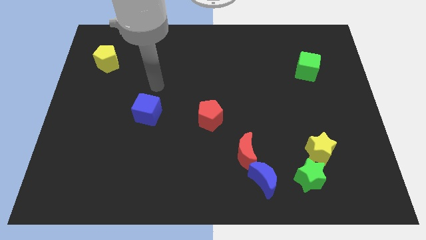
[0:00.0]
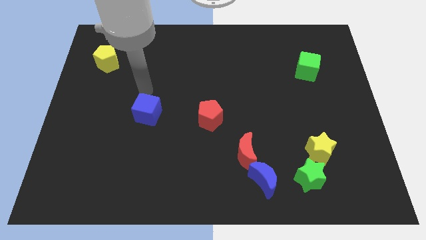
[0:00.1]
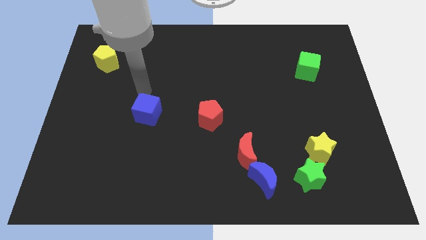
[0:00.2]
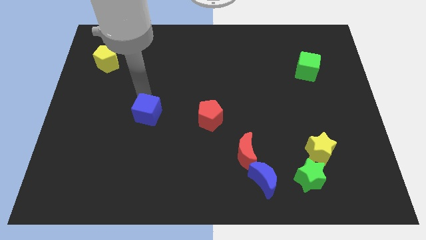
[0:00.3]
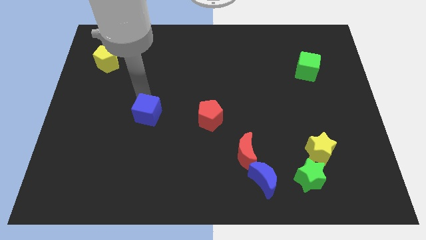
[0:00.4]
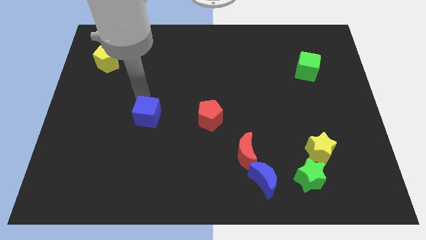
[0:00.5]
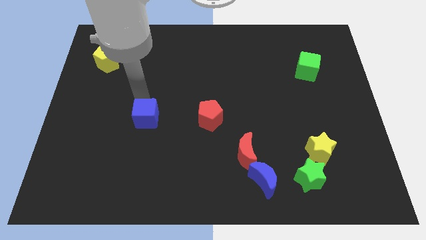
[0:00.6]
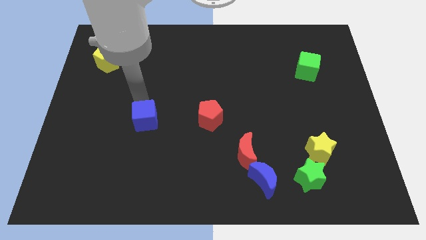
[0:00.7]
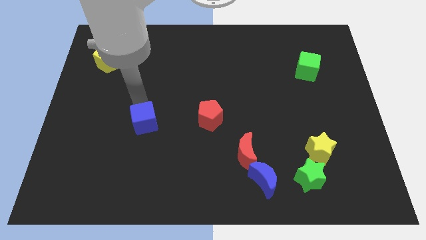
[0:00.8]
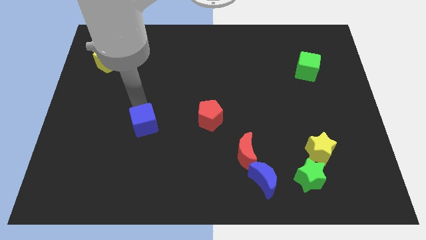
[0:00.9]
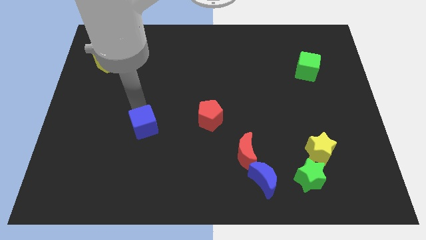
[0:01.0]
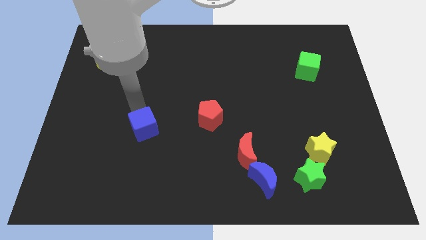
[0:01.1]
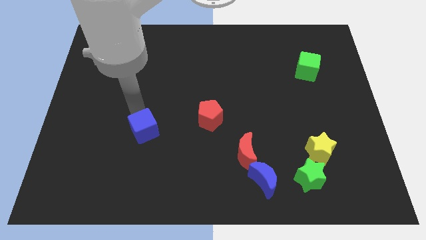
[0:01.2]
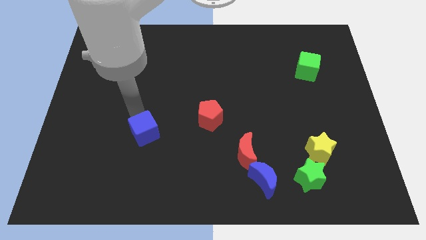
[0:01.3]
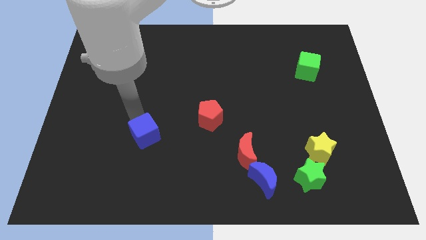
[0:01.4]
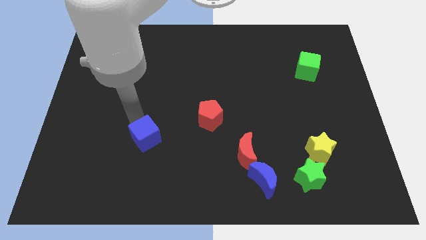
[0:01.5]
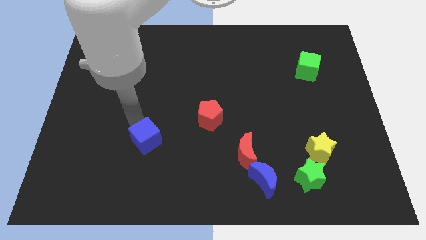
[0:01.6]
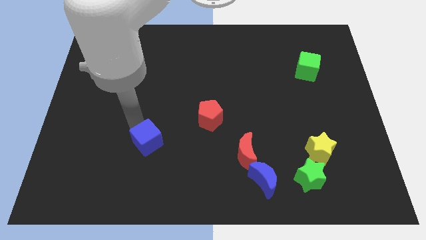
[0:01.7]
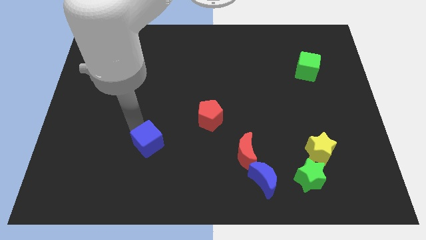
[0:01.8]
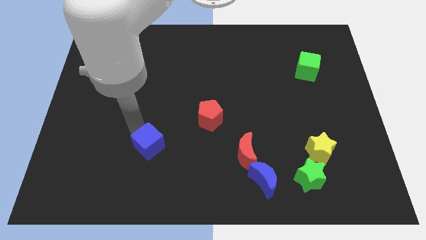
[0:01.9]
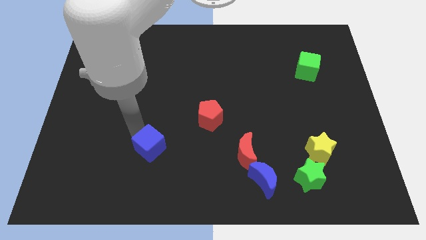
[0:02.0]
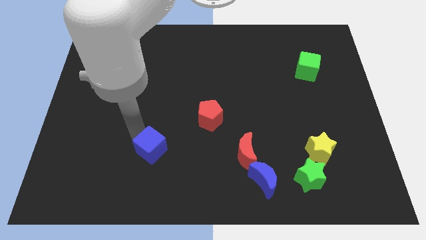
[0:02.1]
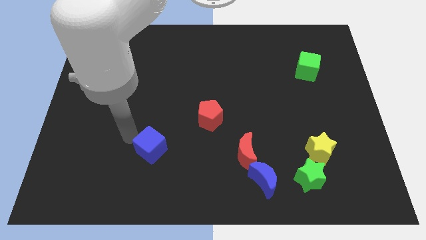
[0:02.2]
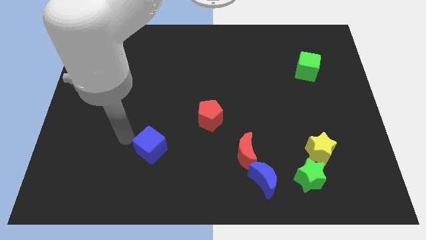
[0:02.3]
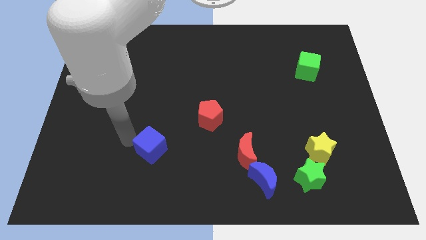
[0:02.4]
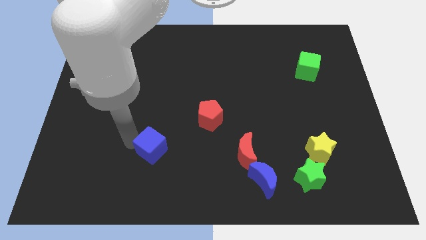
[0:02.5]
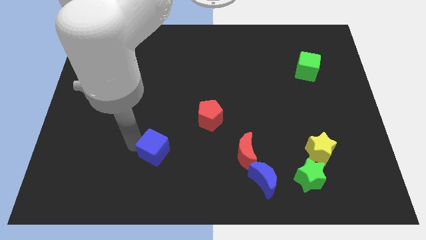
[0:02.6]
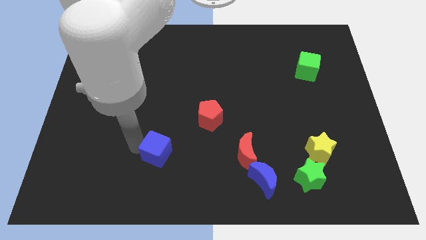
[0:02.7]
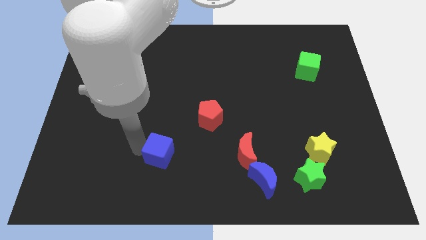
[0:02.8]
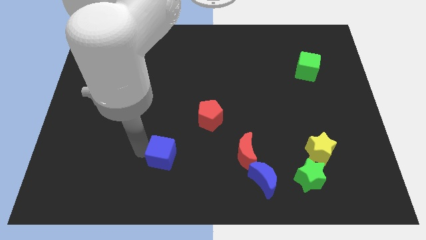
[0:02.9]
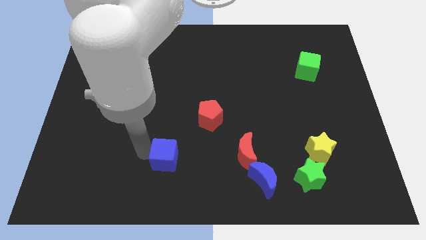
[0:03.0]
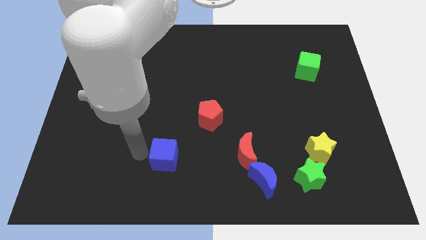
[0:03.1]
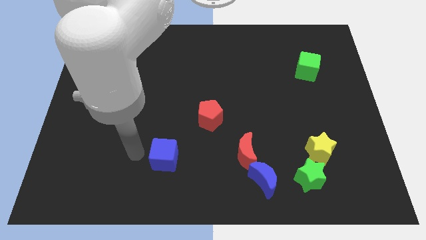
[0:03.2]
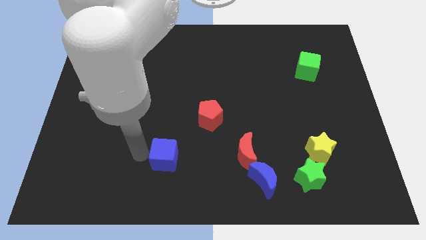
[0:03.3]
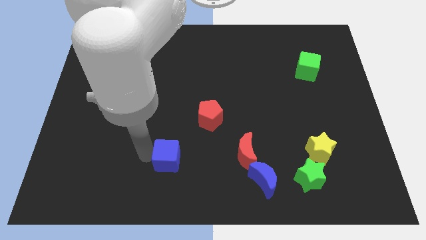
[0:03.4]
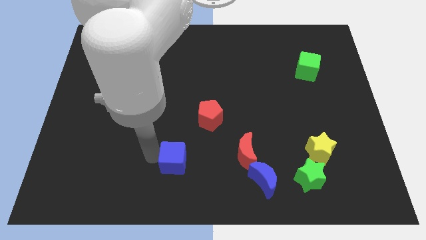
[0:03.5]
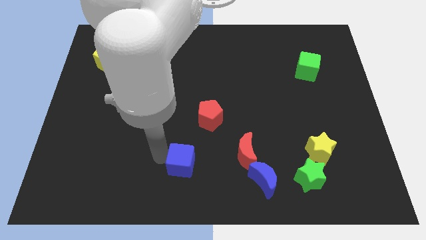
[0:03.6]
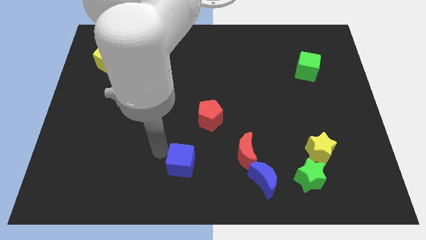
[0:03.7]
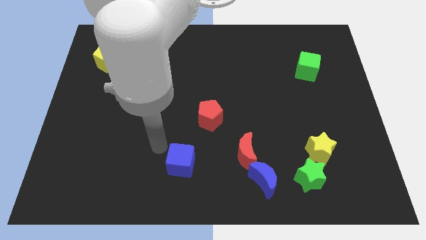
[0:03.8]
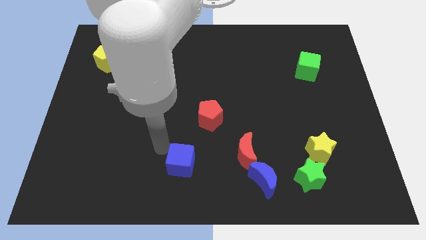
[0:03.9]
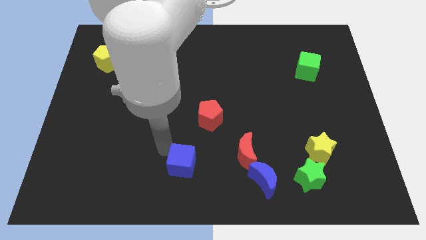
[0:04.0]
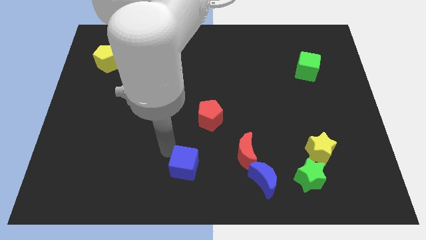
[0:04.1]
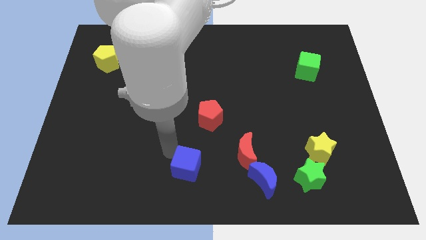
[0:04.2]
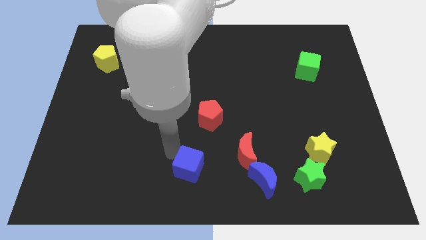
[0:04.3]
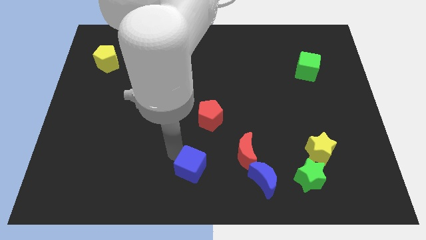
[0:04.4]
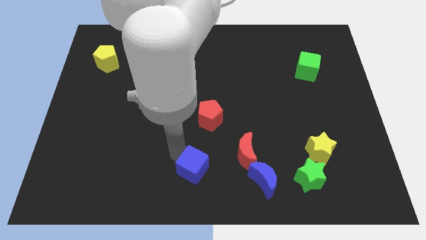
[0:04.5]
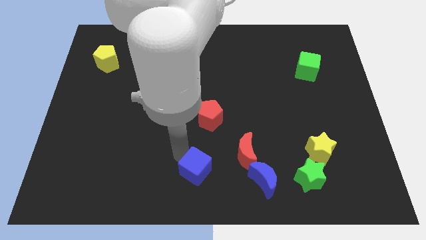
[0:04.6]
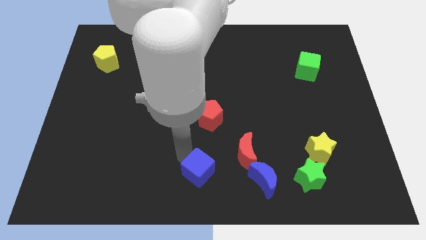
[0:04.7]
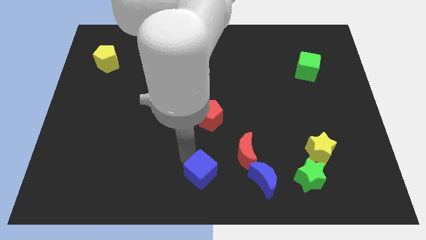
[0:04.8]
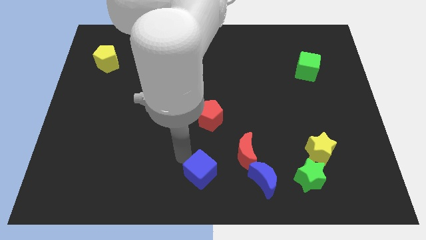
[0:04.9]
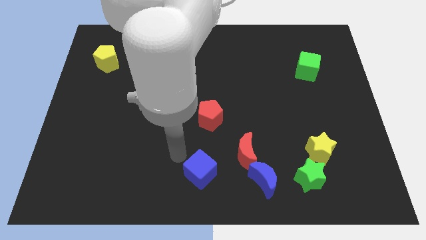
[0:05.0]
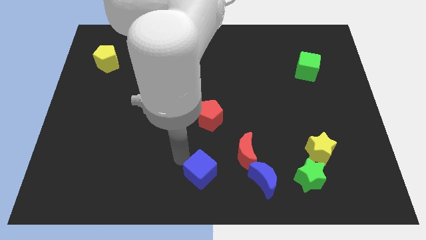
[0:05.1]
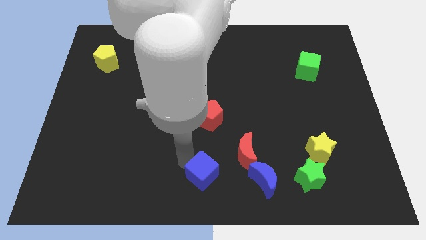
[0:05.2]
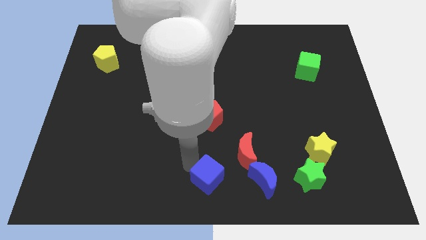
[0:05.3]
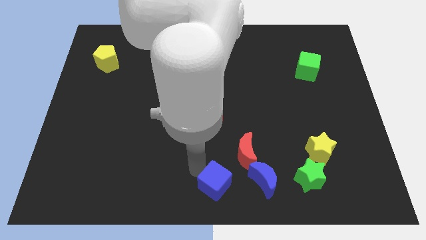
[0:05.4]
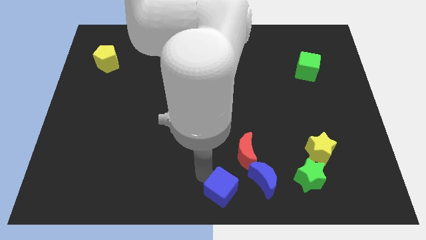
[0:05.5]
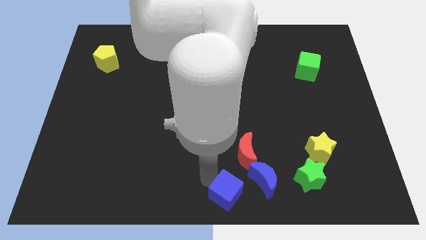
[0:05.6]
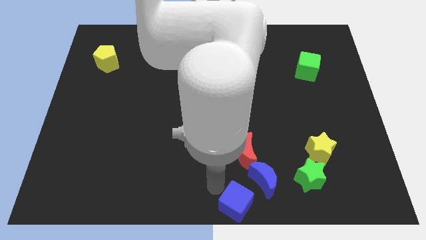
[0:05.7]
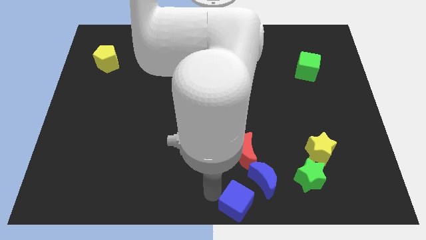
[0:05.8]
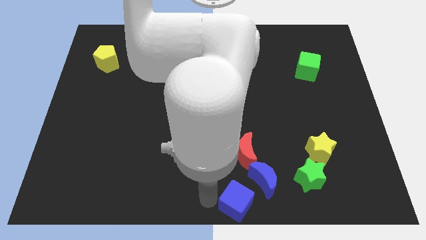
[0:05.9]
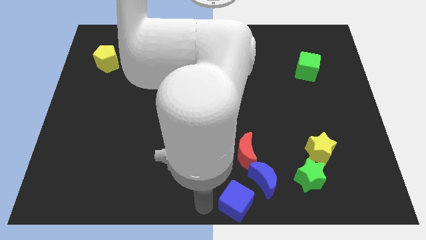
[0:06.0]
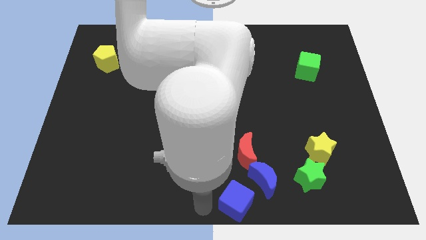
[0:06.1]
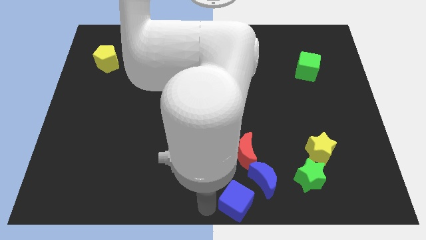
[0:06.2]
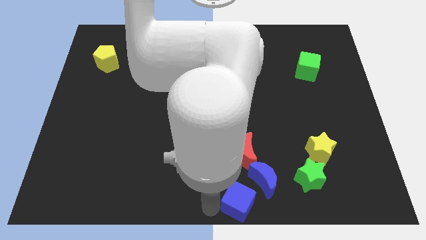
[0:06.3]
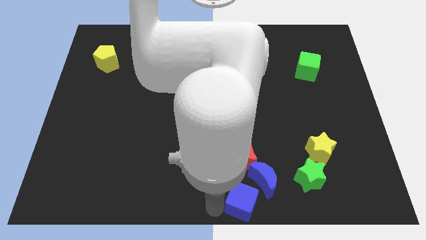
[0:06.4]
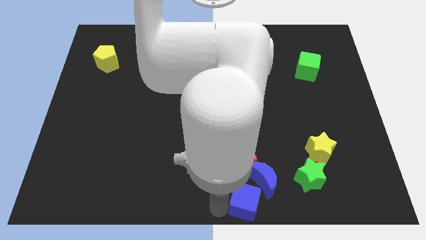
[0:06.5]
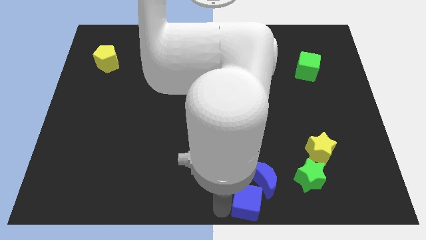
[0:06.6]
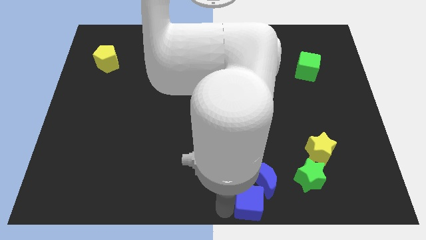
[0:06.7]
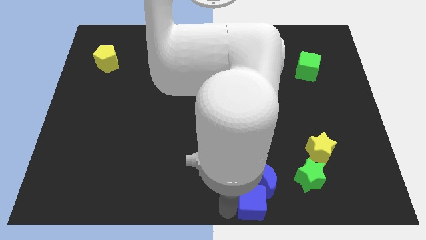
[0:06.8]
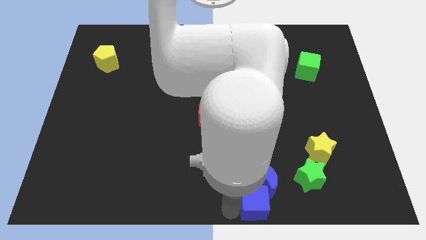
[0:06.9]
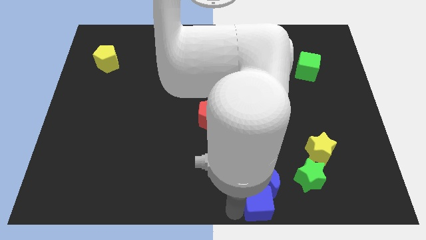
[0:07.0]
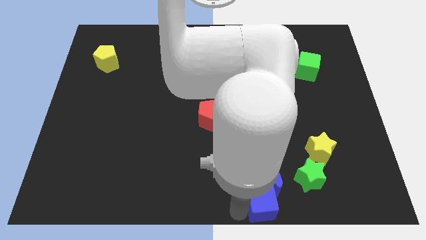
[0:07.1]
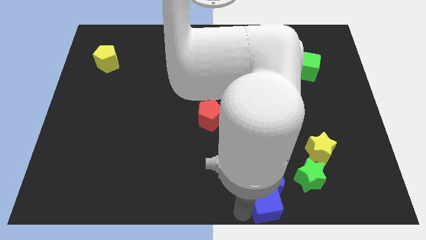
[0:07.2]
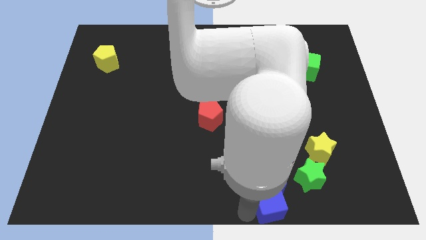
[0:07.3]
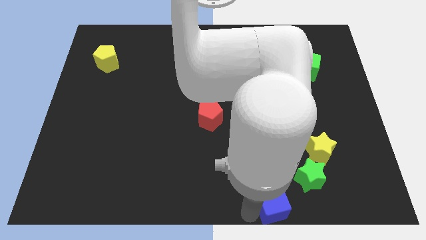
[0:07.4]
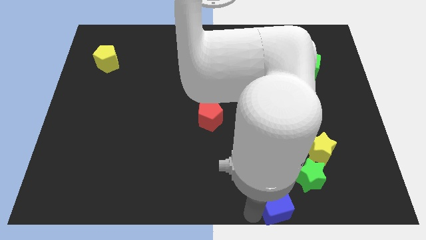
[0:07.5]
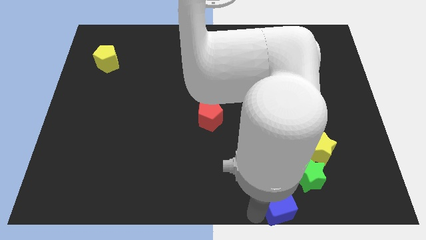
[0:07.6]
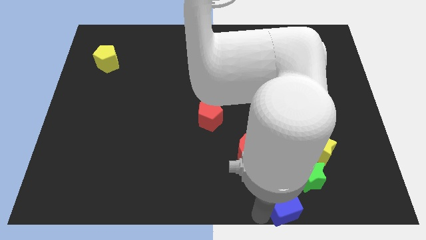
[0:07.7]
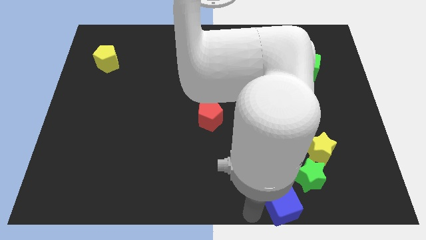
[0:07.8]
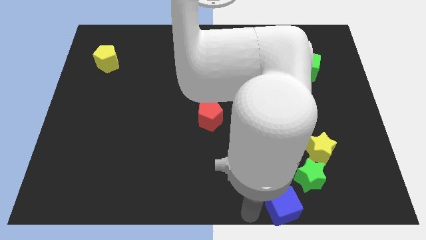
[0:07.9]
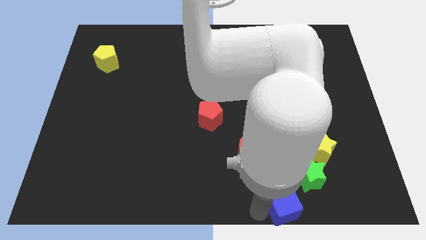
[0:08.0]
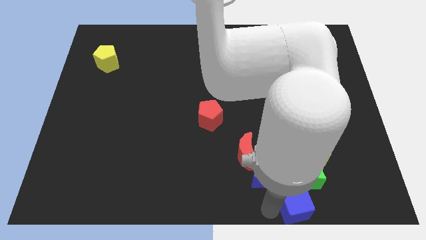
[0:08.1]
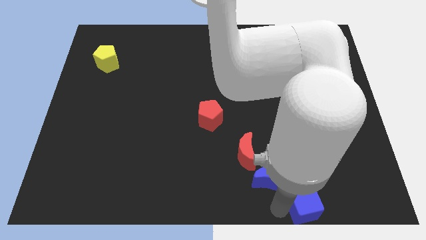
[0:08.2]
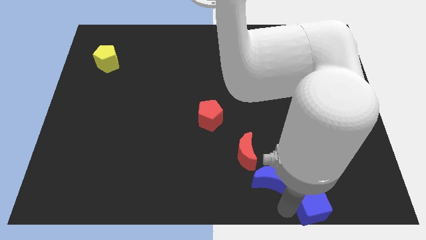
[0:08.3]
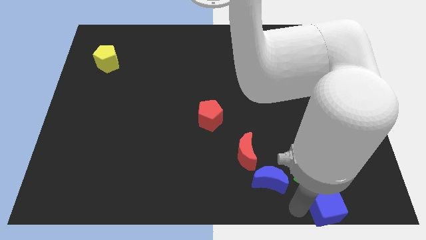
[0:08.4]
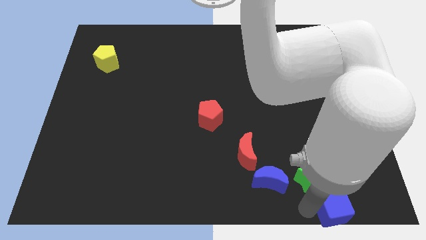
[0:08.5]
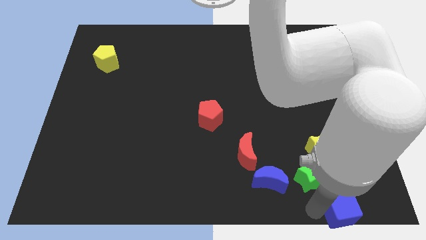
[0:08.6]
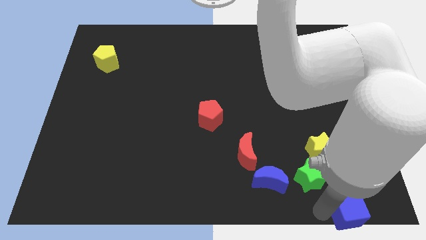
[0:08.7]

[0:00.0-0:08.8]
push the blue cube to the bottom right
